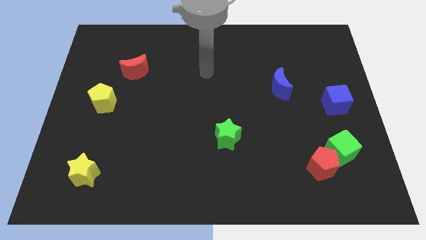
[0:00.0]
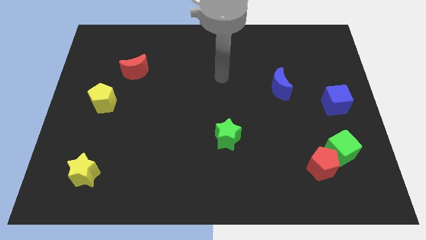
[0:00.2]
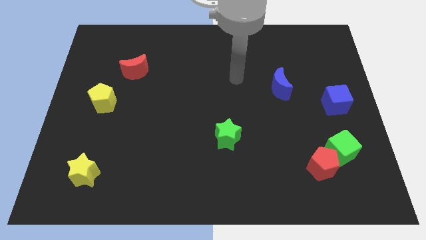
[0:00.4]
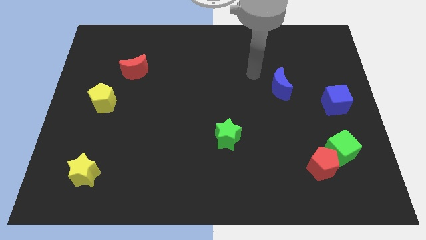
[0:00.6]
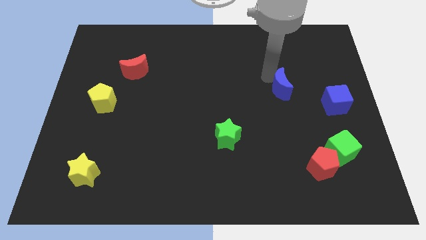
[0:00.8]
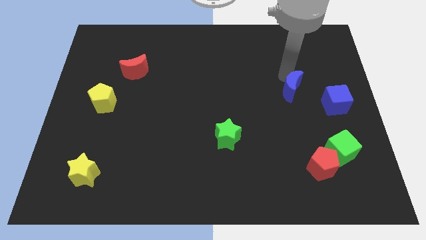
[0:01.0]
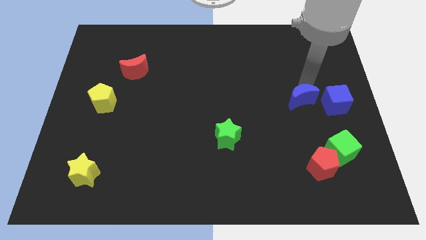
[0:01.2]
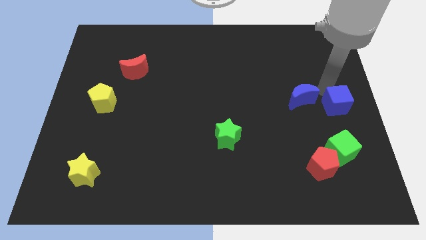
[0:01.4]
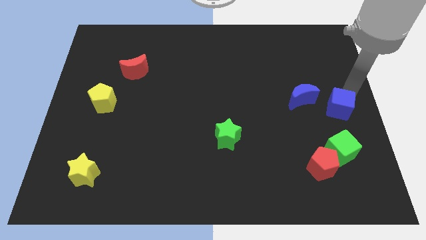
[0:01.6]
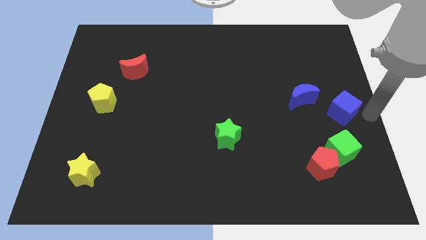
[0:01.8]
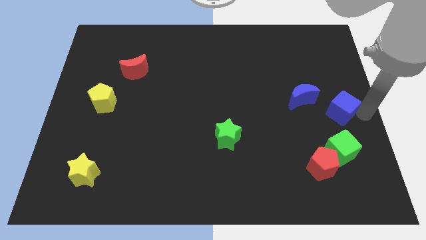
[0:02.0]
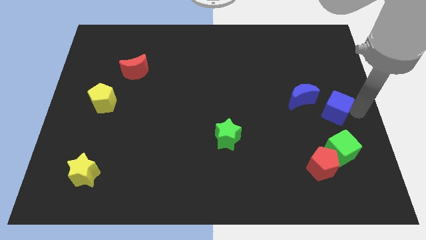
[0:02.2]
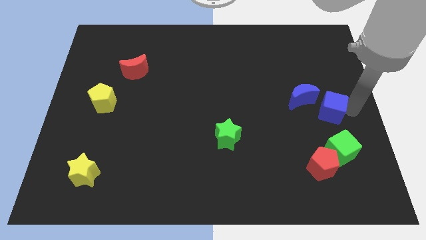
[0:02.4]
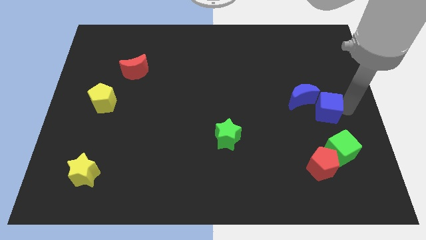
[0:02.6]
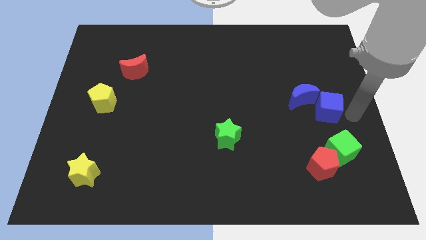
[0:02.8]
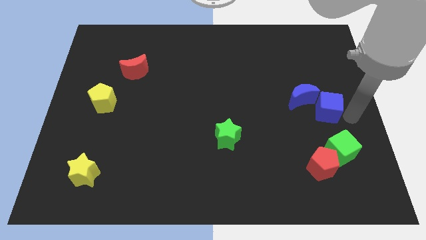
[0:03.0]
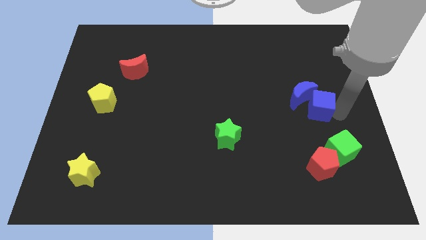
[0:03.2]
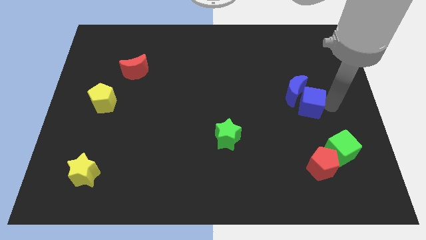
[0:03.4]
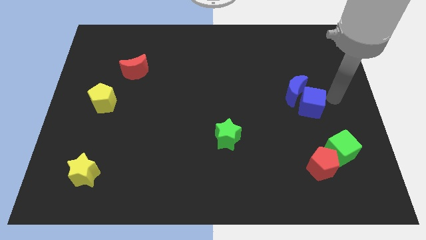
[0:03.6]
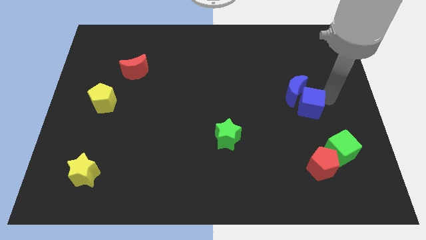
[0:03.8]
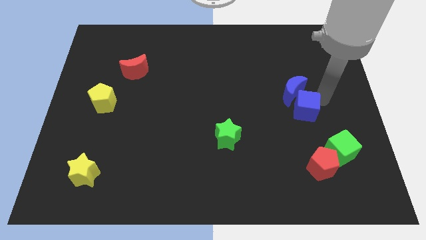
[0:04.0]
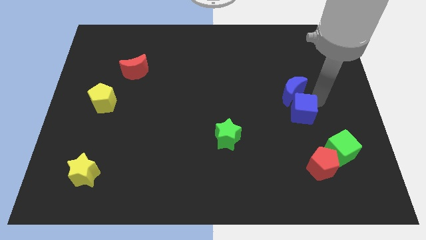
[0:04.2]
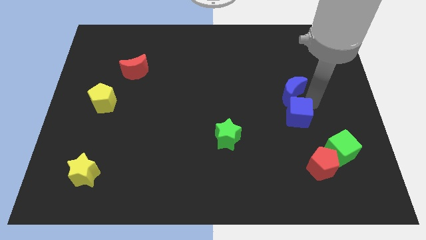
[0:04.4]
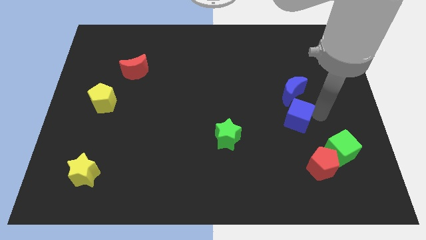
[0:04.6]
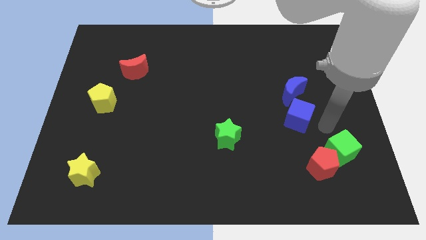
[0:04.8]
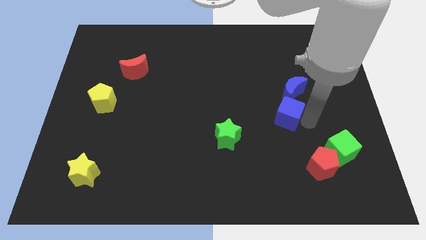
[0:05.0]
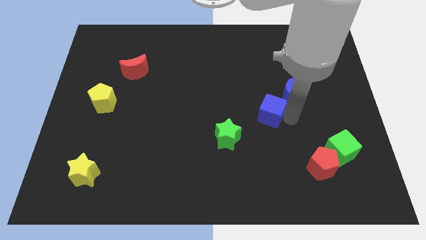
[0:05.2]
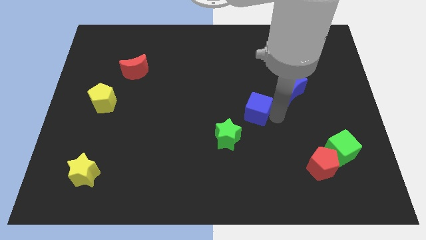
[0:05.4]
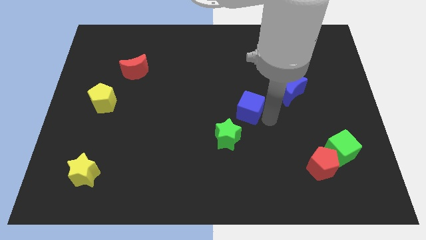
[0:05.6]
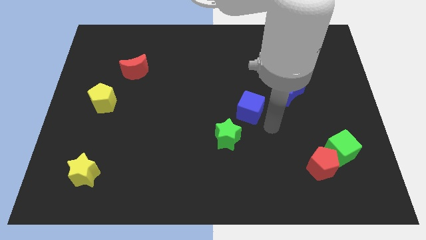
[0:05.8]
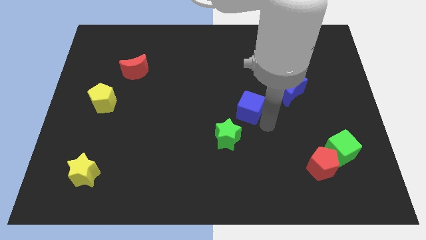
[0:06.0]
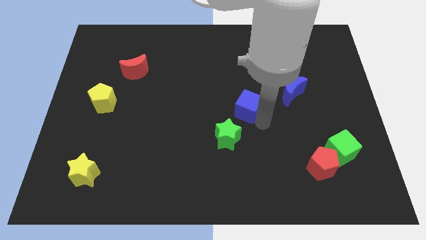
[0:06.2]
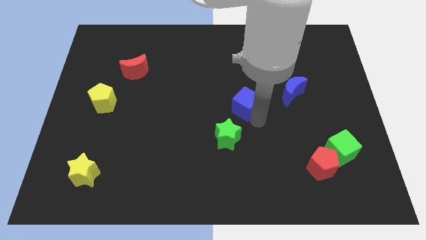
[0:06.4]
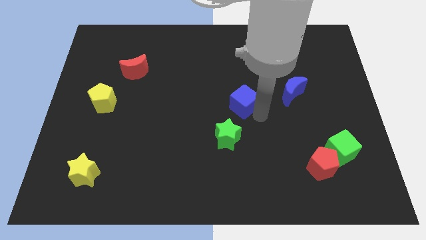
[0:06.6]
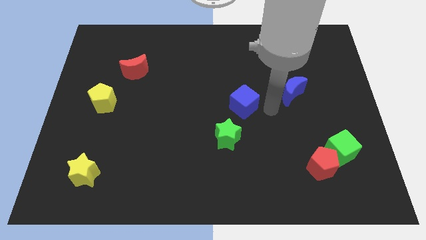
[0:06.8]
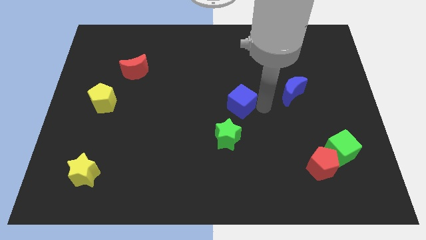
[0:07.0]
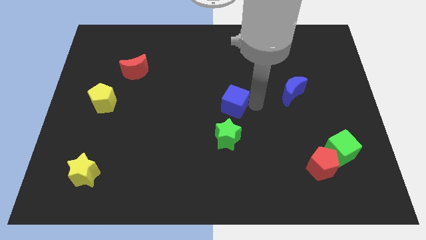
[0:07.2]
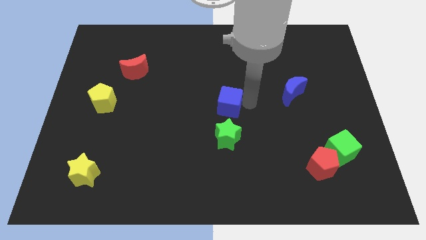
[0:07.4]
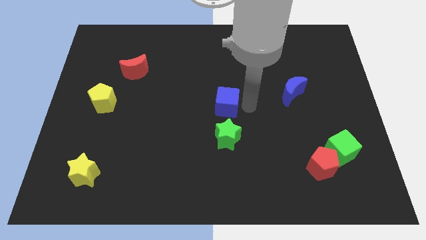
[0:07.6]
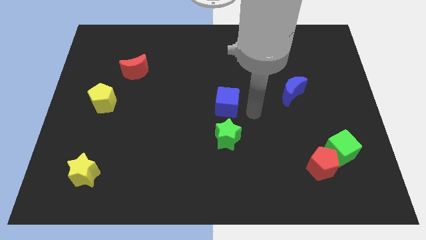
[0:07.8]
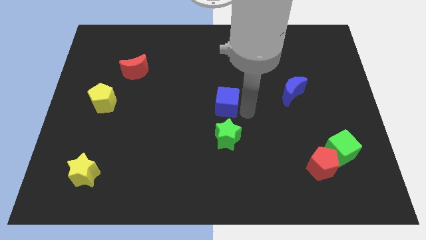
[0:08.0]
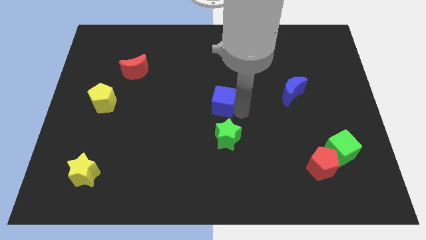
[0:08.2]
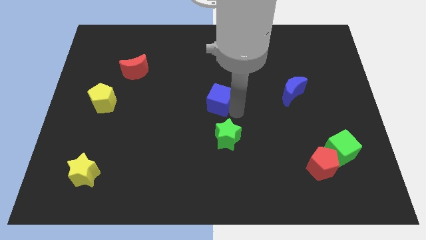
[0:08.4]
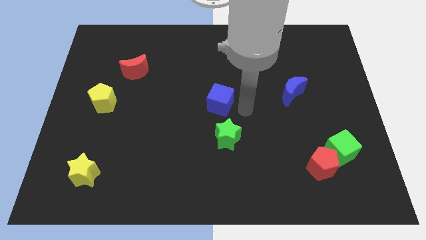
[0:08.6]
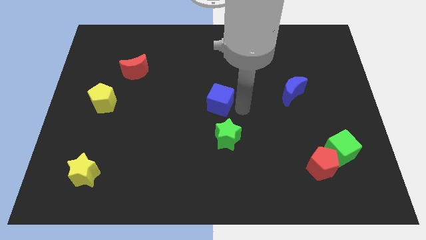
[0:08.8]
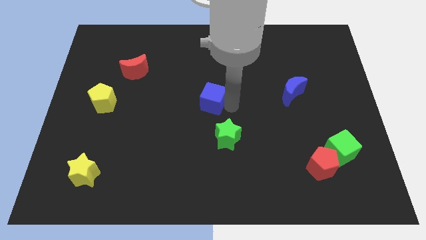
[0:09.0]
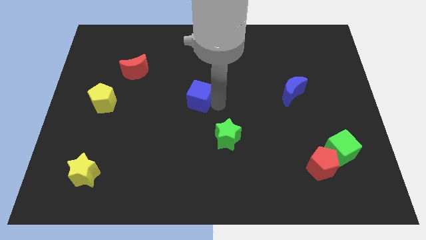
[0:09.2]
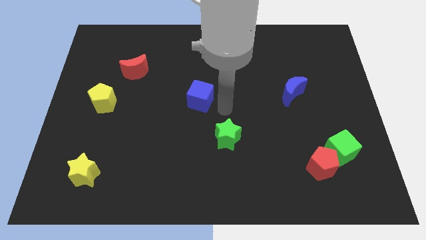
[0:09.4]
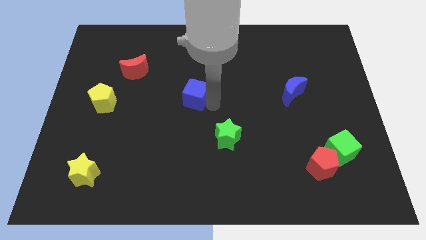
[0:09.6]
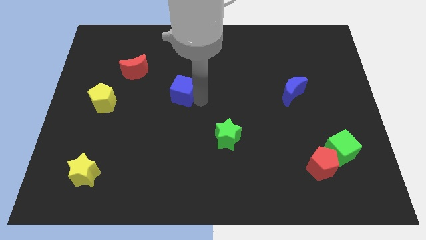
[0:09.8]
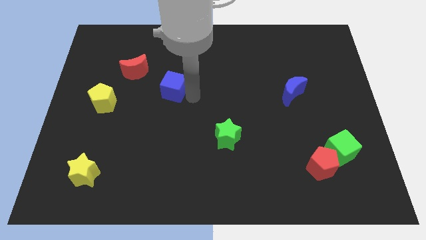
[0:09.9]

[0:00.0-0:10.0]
put the blue cube to the bottom right of the red moon

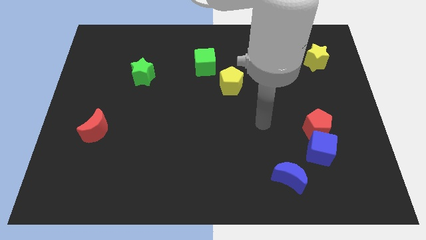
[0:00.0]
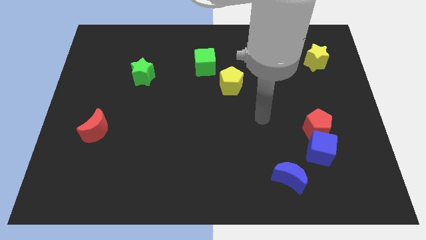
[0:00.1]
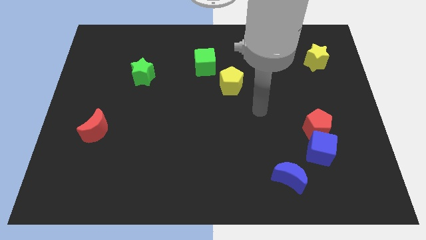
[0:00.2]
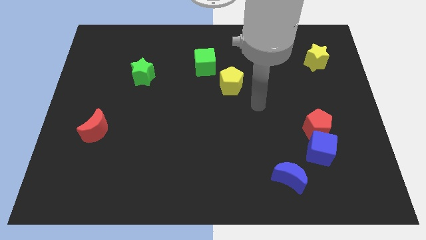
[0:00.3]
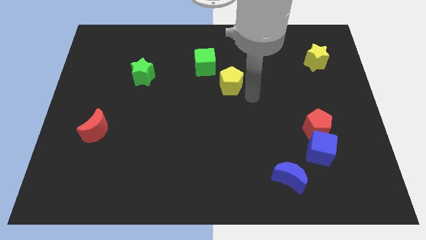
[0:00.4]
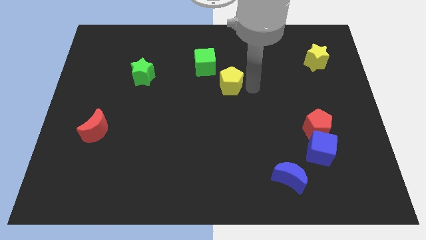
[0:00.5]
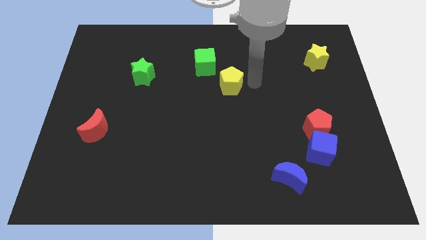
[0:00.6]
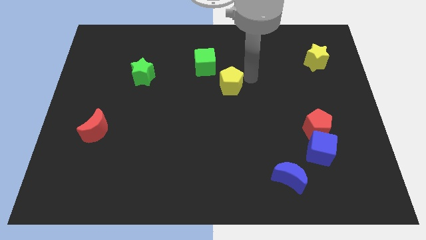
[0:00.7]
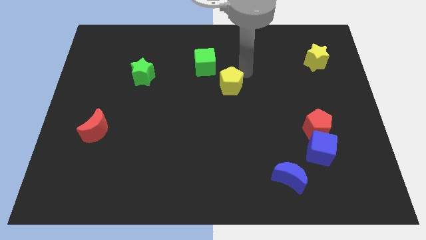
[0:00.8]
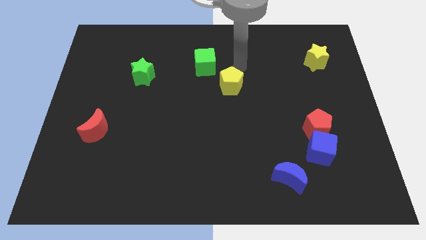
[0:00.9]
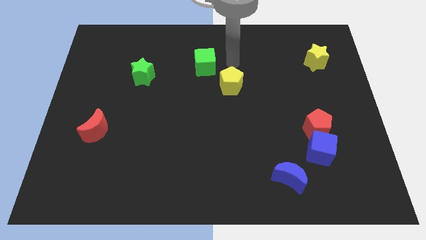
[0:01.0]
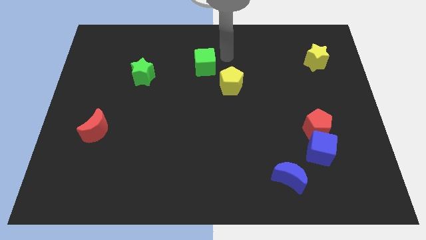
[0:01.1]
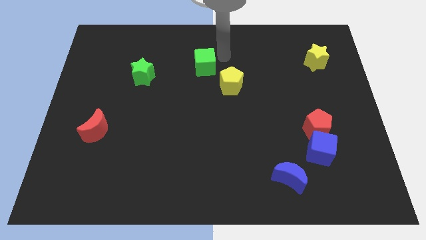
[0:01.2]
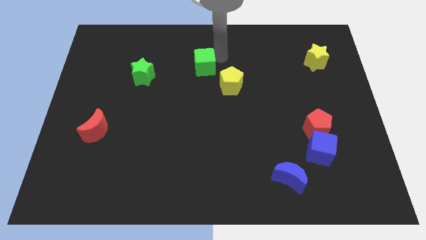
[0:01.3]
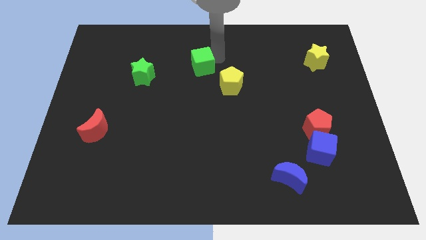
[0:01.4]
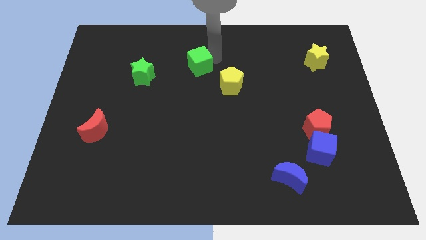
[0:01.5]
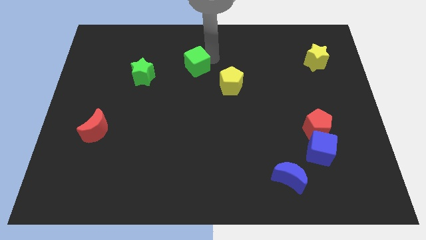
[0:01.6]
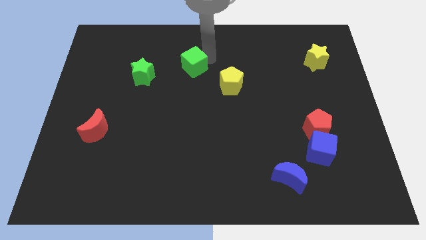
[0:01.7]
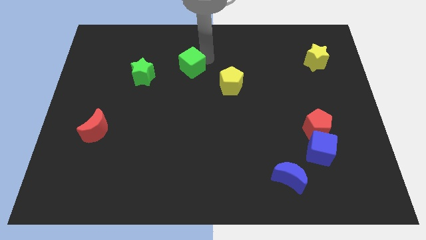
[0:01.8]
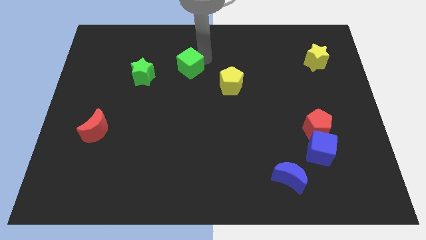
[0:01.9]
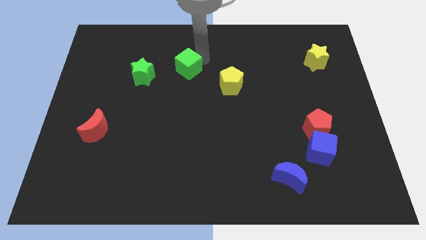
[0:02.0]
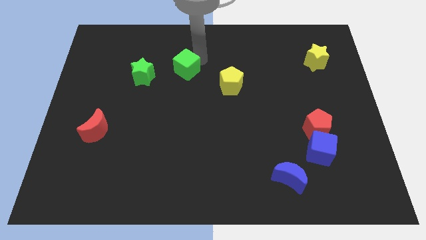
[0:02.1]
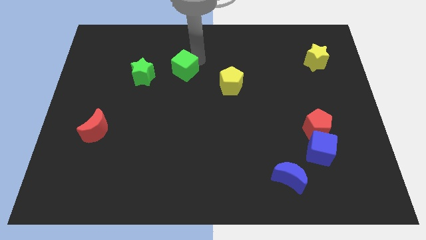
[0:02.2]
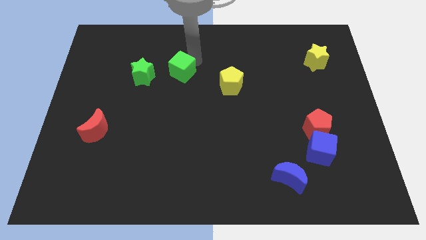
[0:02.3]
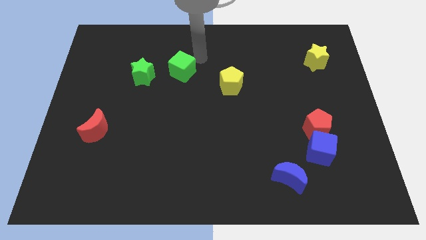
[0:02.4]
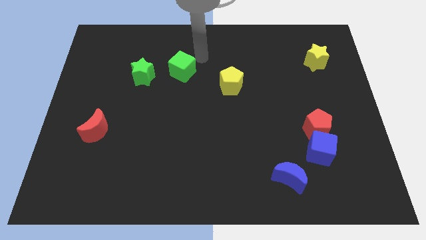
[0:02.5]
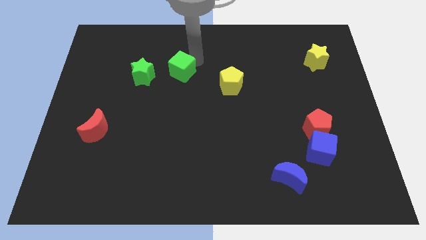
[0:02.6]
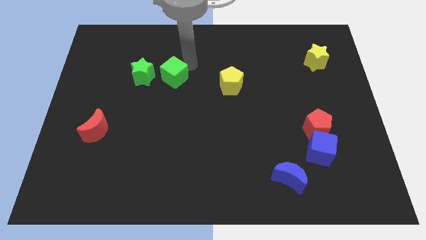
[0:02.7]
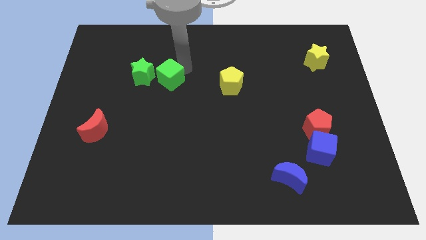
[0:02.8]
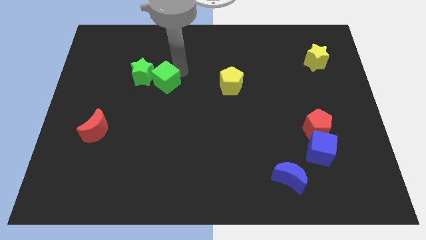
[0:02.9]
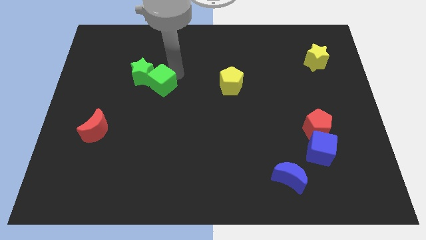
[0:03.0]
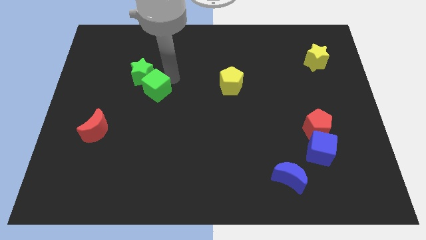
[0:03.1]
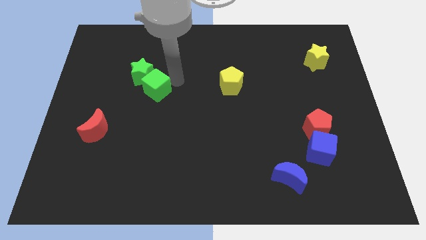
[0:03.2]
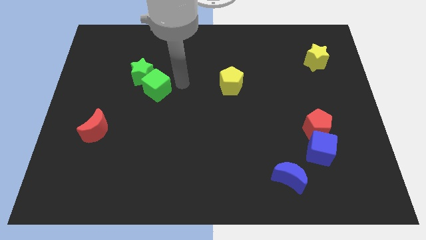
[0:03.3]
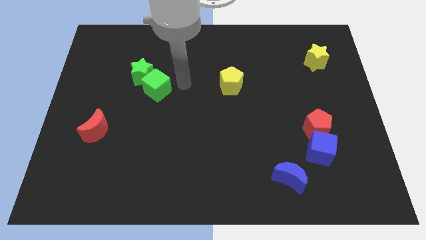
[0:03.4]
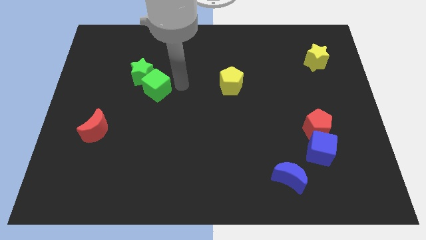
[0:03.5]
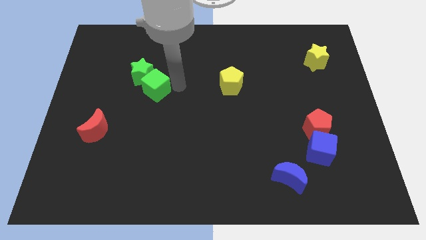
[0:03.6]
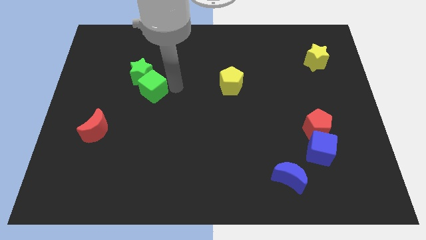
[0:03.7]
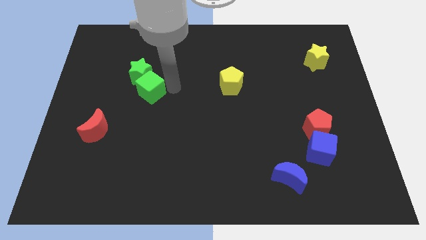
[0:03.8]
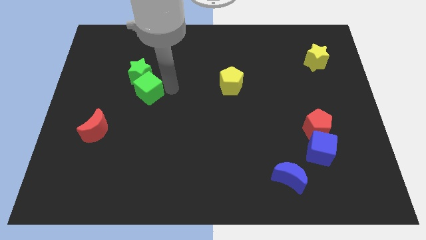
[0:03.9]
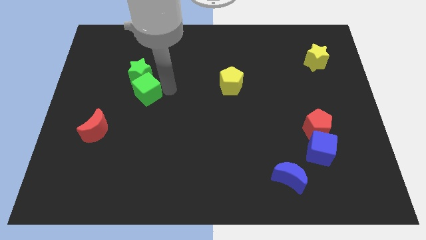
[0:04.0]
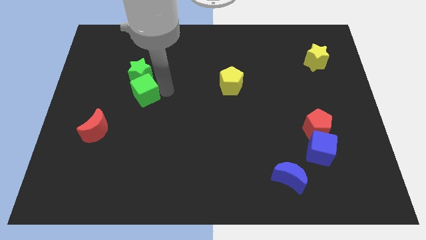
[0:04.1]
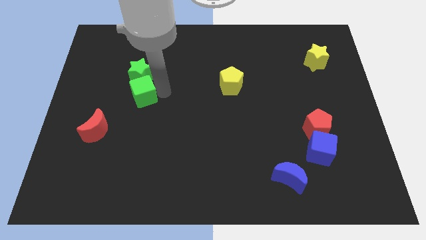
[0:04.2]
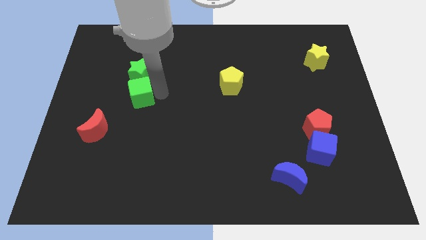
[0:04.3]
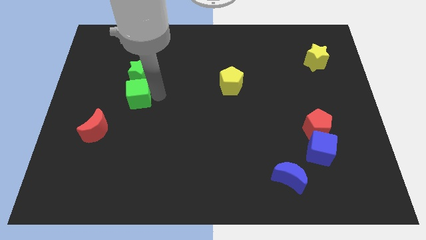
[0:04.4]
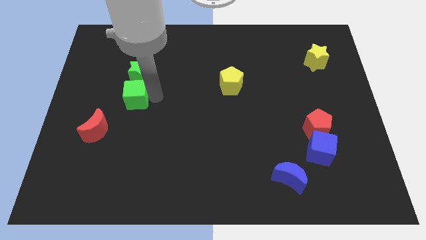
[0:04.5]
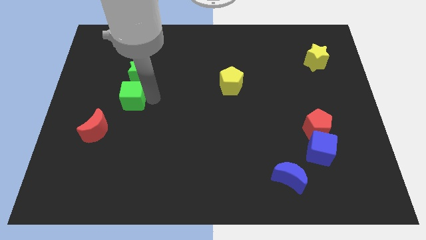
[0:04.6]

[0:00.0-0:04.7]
move the green cube to the bottom left side of the green star
